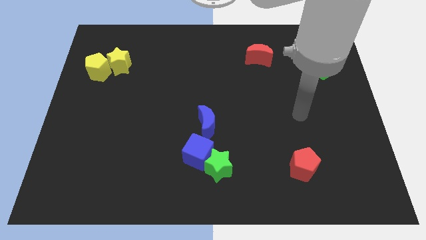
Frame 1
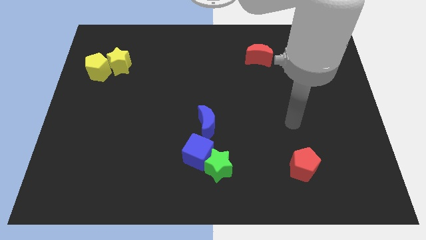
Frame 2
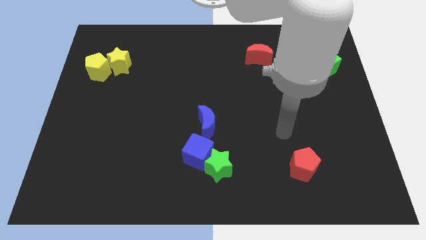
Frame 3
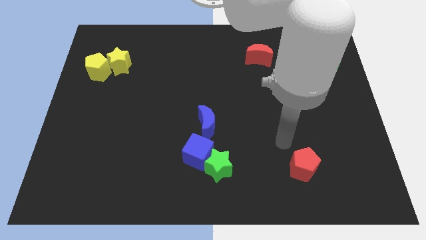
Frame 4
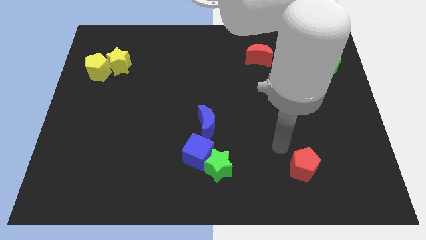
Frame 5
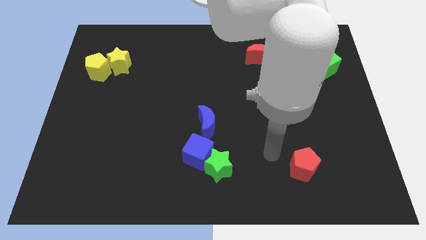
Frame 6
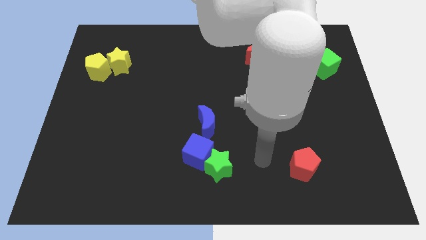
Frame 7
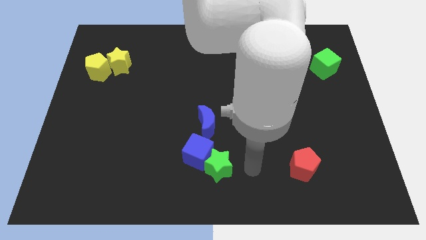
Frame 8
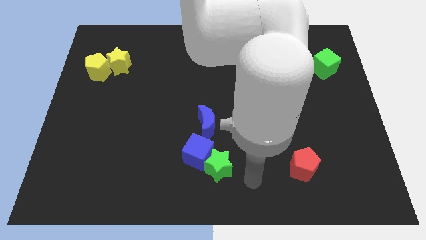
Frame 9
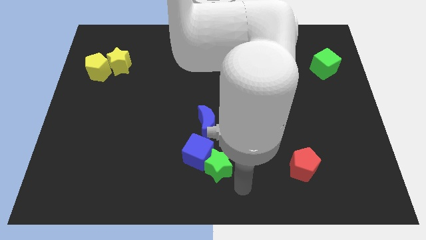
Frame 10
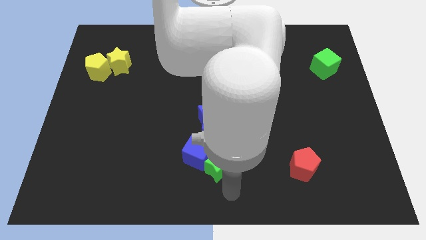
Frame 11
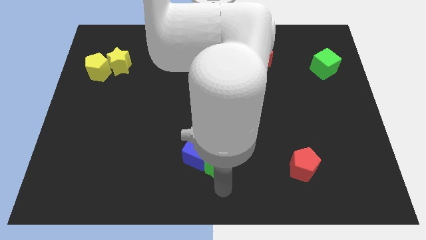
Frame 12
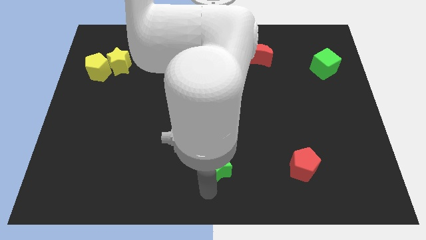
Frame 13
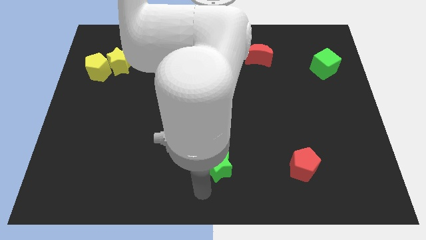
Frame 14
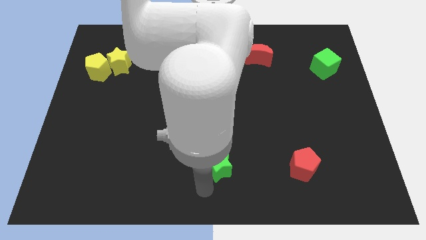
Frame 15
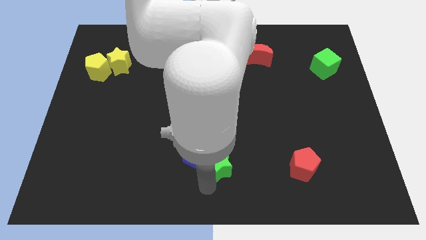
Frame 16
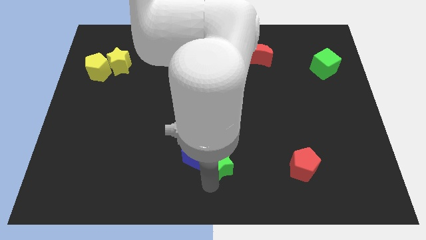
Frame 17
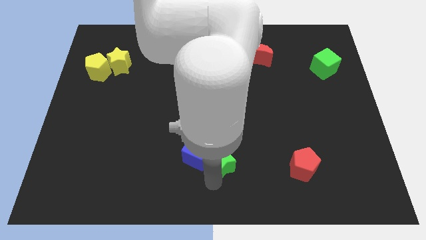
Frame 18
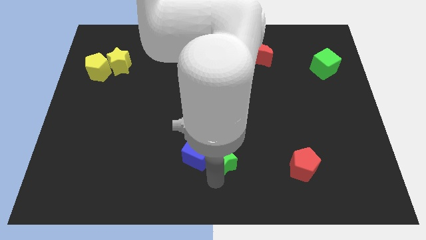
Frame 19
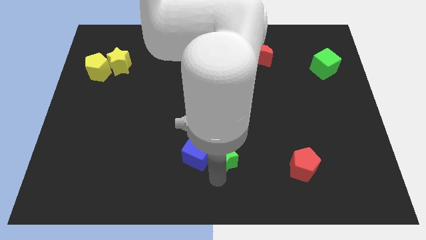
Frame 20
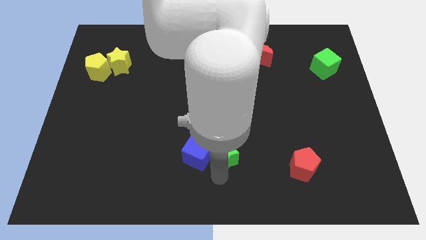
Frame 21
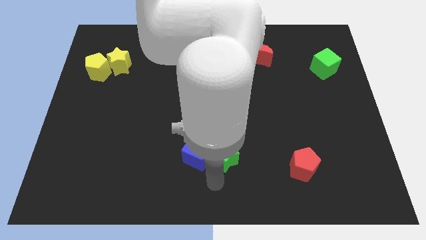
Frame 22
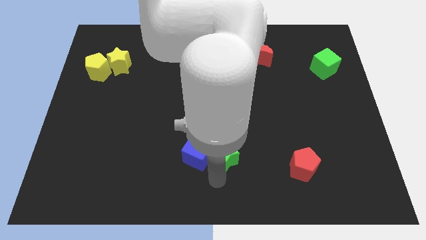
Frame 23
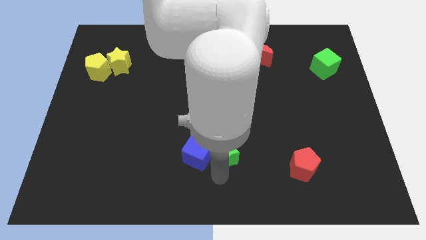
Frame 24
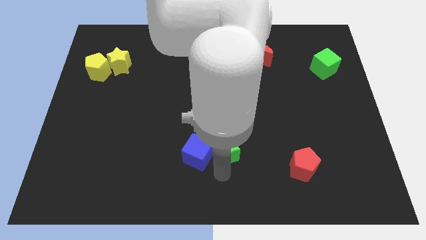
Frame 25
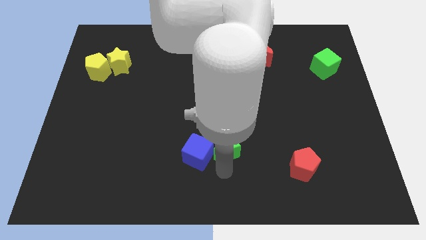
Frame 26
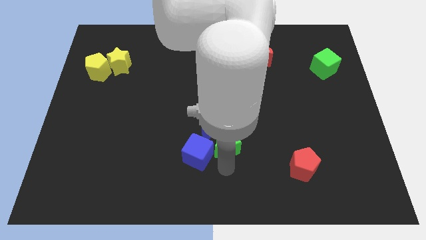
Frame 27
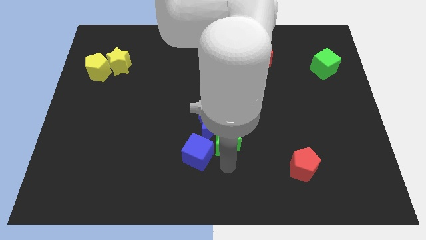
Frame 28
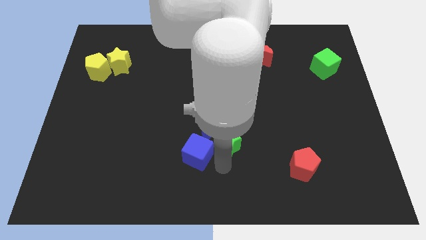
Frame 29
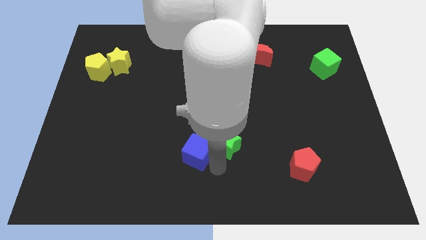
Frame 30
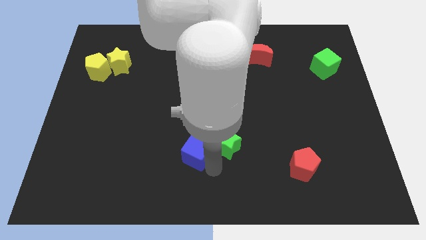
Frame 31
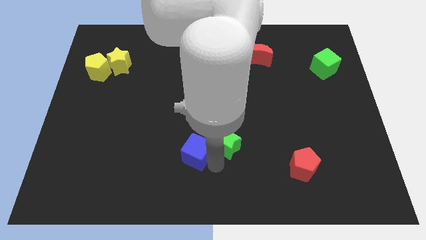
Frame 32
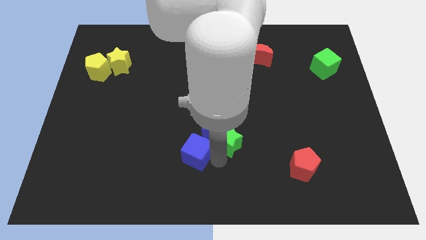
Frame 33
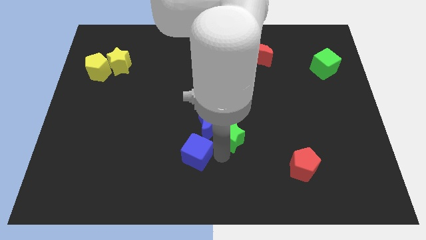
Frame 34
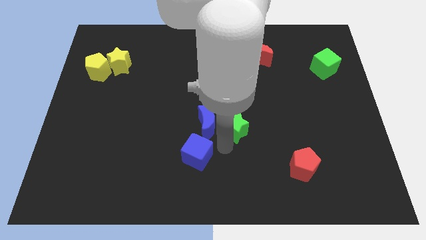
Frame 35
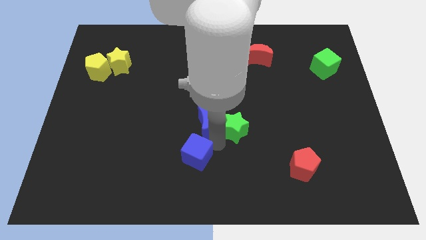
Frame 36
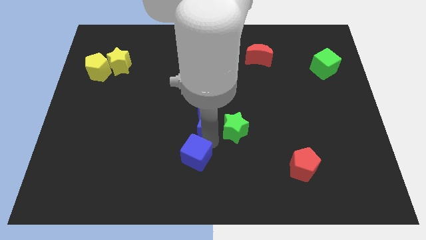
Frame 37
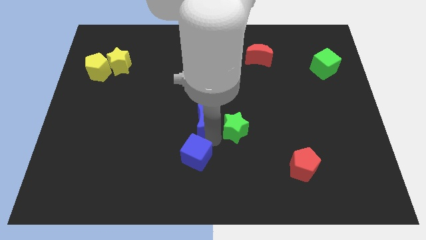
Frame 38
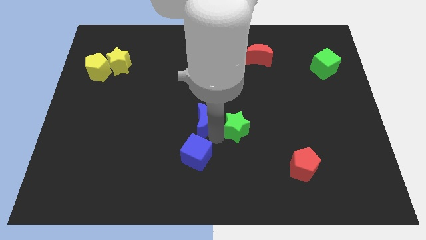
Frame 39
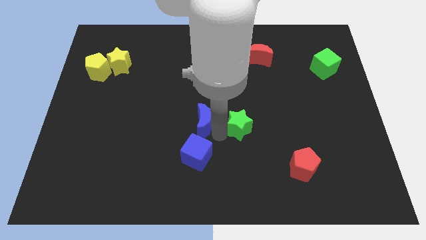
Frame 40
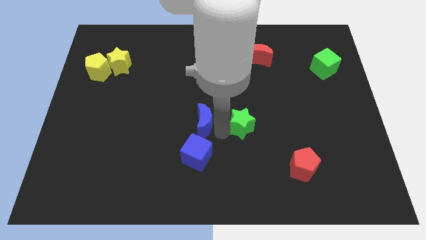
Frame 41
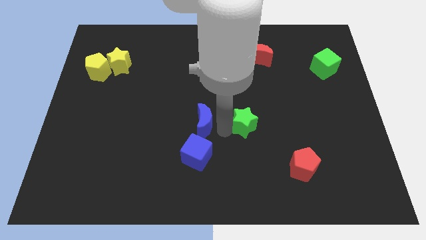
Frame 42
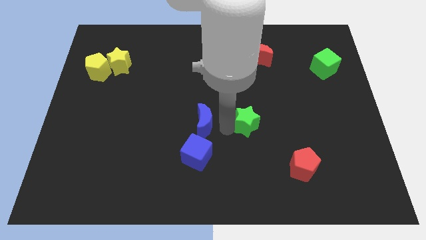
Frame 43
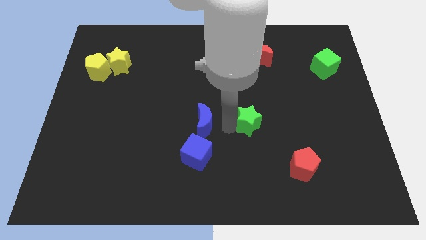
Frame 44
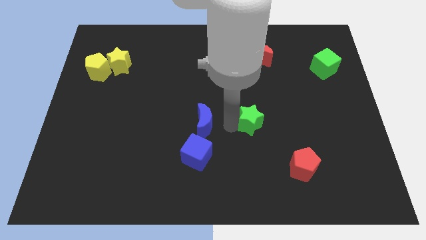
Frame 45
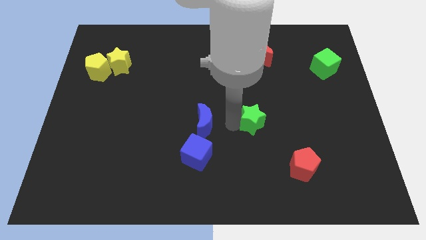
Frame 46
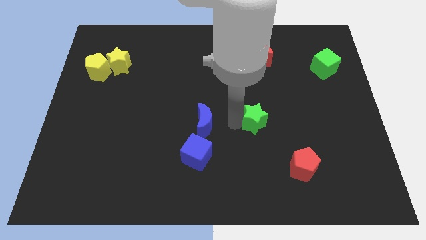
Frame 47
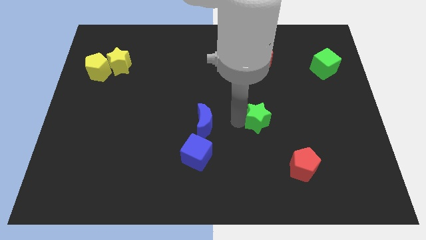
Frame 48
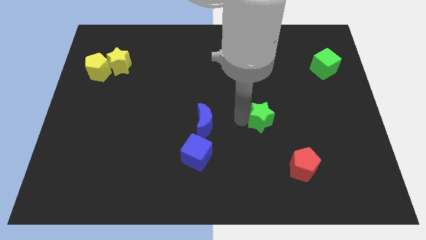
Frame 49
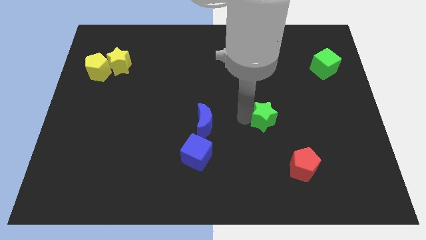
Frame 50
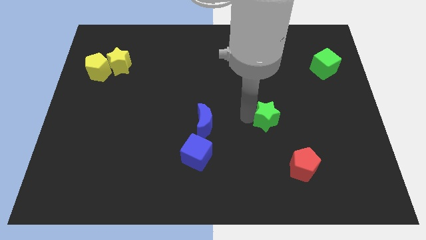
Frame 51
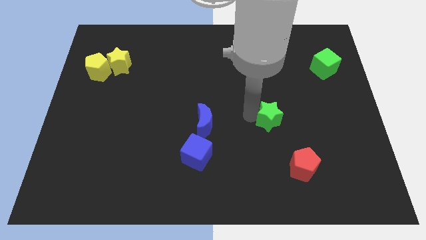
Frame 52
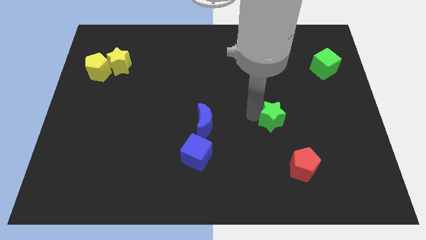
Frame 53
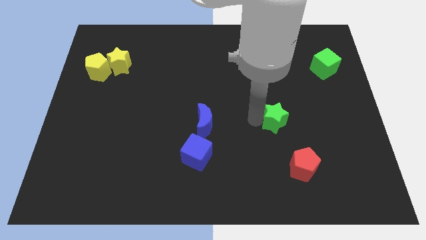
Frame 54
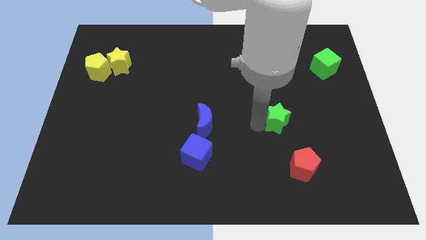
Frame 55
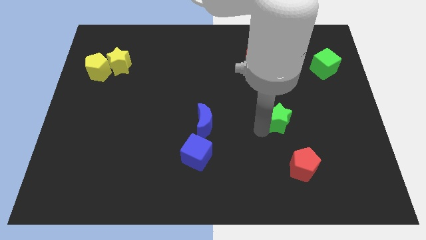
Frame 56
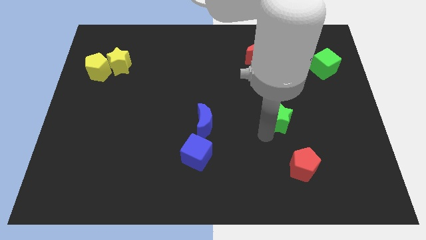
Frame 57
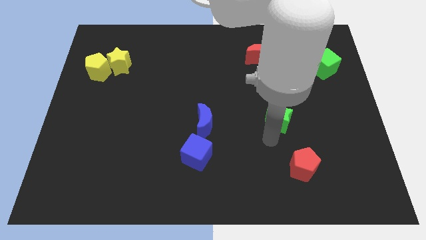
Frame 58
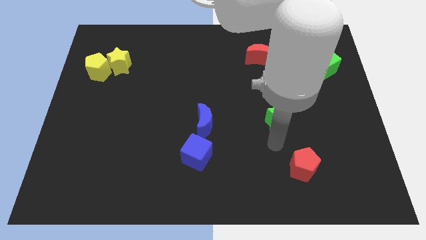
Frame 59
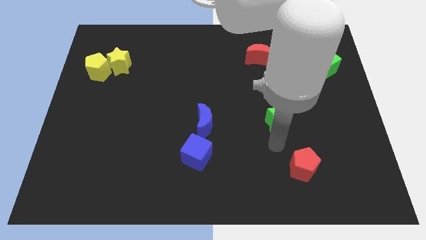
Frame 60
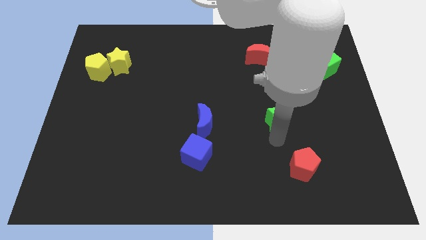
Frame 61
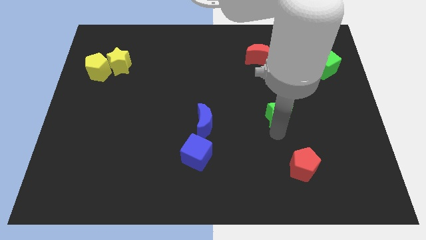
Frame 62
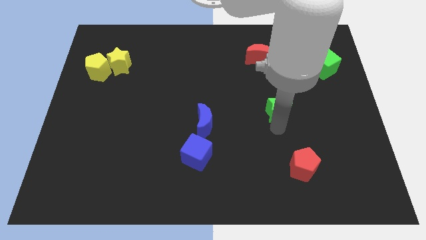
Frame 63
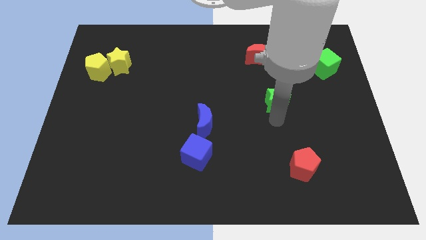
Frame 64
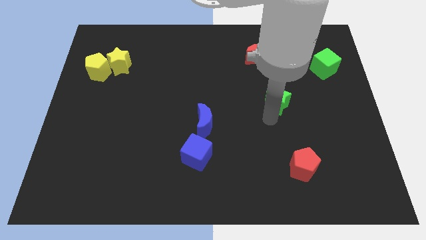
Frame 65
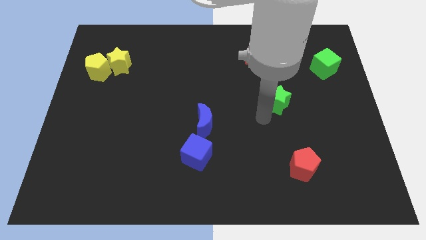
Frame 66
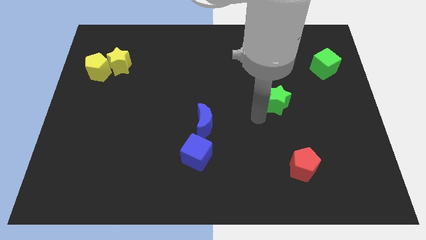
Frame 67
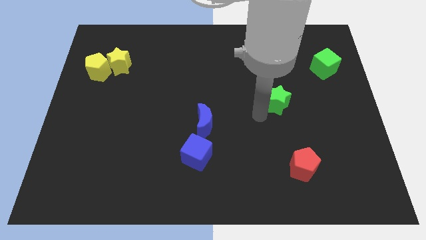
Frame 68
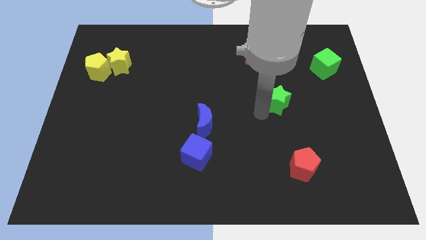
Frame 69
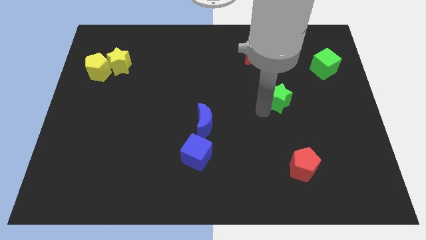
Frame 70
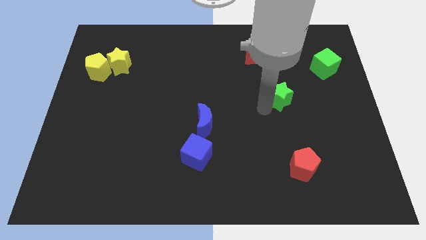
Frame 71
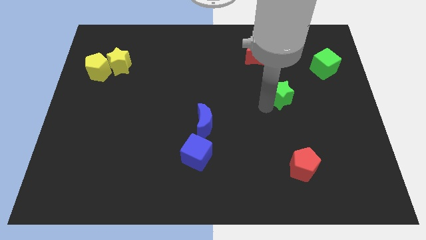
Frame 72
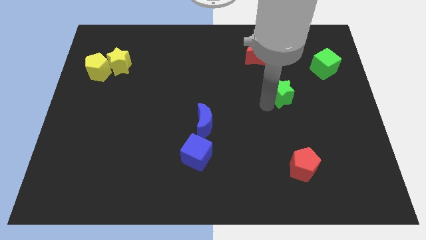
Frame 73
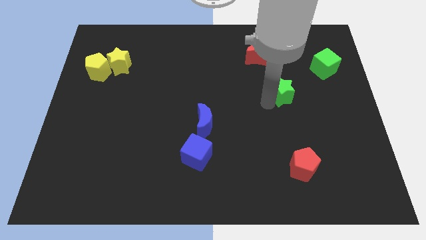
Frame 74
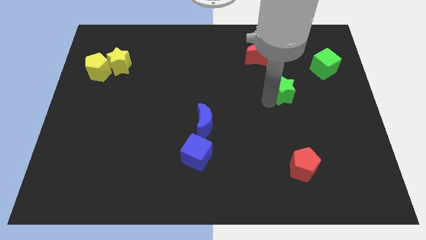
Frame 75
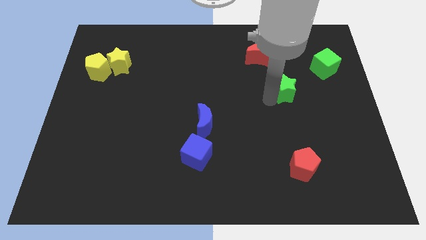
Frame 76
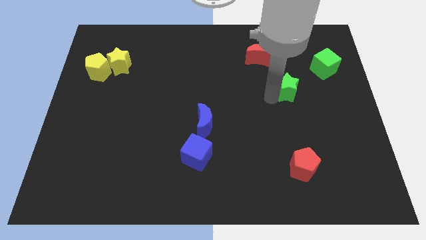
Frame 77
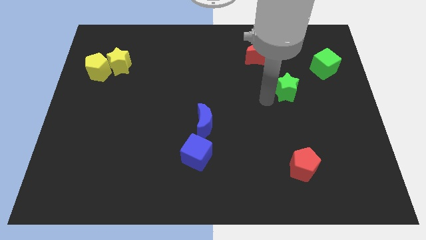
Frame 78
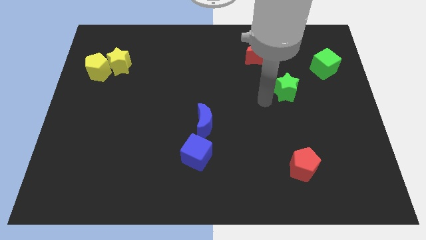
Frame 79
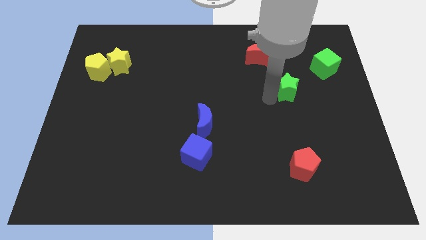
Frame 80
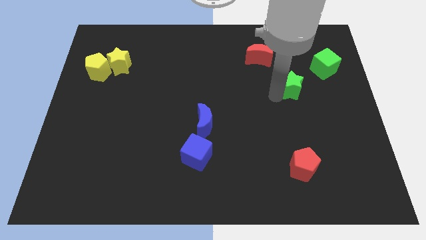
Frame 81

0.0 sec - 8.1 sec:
push the green star to the bottom left side of the green cube
